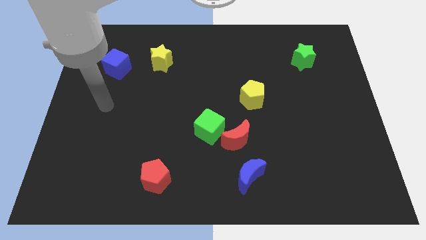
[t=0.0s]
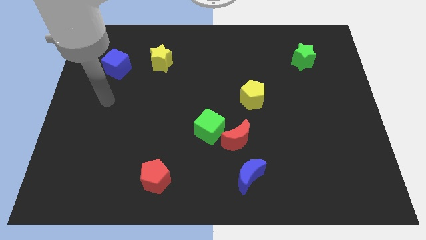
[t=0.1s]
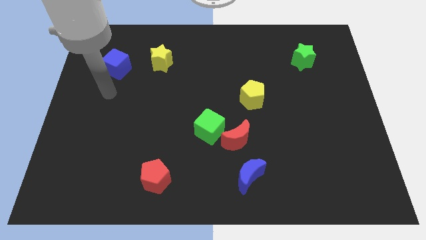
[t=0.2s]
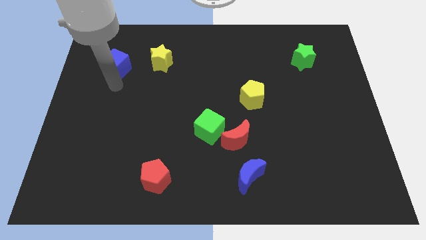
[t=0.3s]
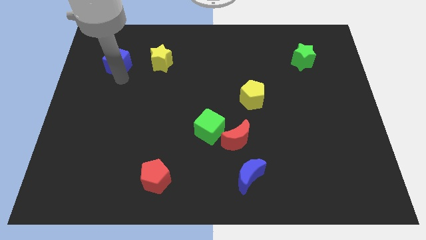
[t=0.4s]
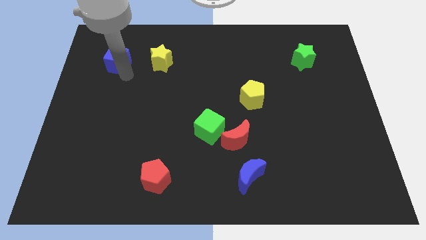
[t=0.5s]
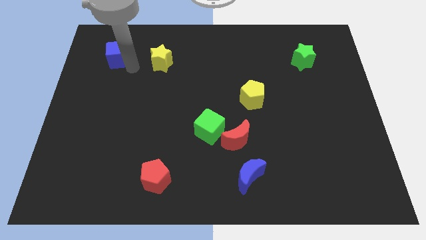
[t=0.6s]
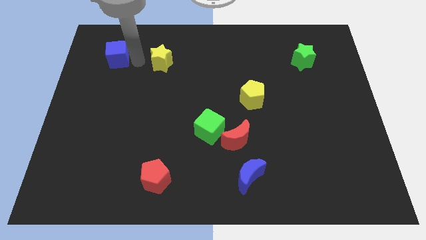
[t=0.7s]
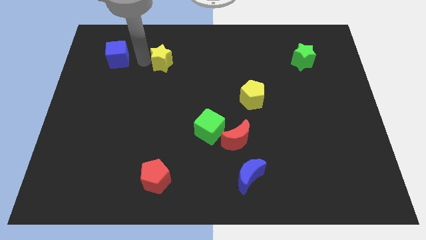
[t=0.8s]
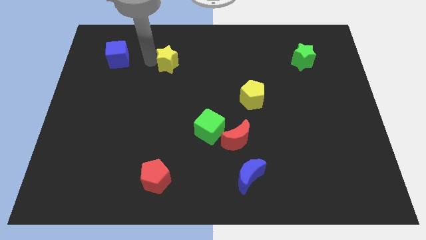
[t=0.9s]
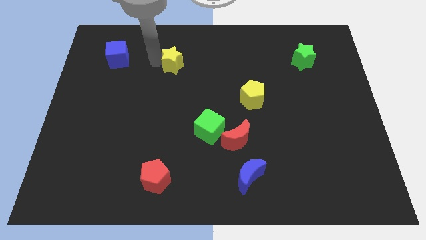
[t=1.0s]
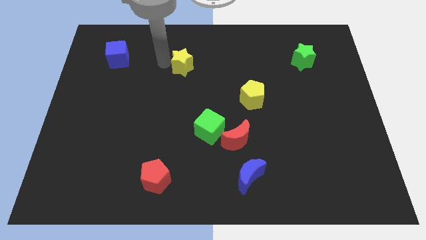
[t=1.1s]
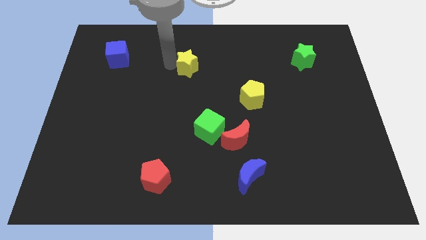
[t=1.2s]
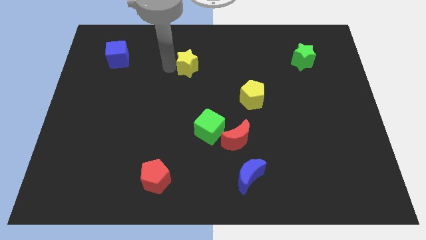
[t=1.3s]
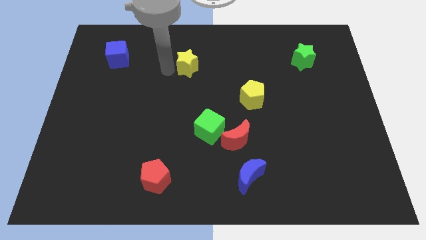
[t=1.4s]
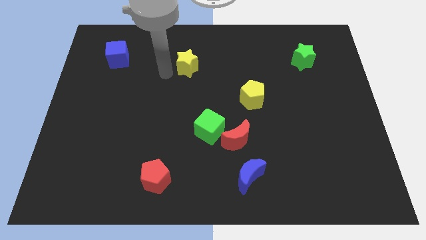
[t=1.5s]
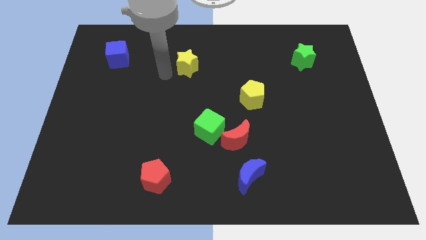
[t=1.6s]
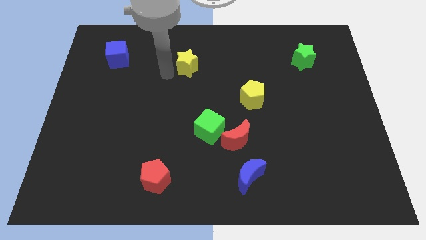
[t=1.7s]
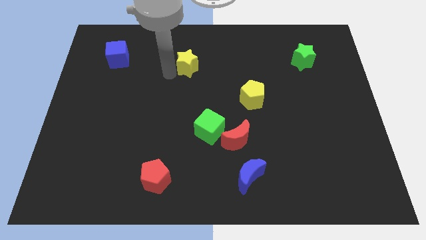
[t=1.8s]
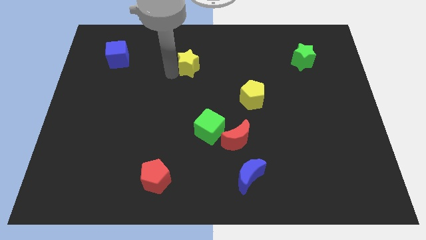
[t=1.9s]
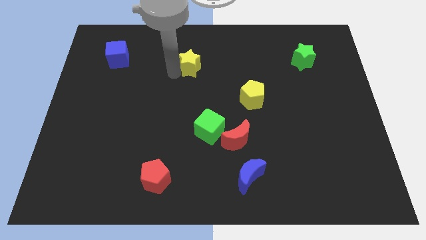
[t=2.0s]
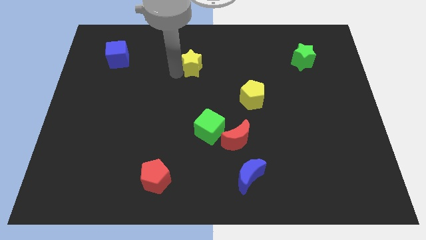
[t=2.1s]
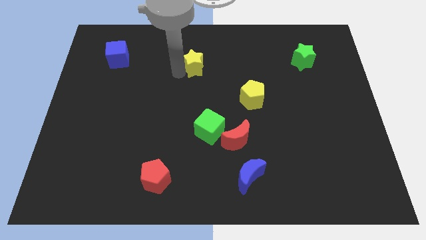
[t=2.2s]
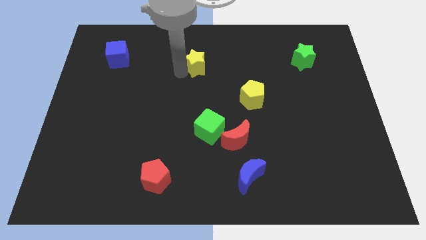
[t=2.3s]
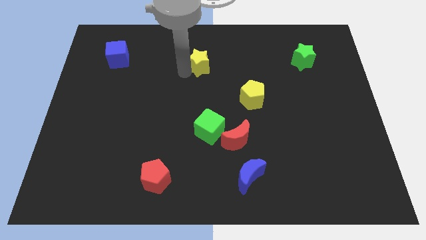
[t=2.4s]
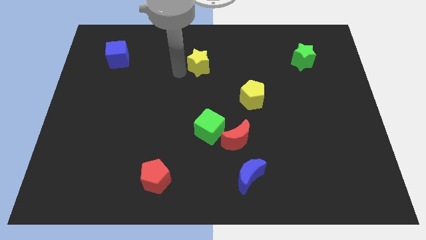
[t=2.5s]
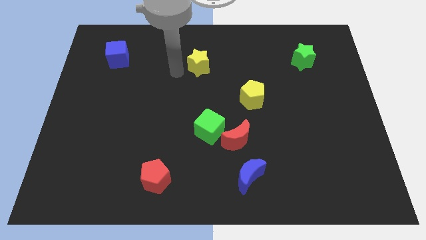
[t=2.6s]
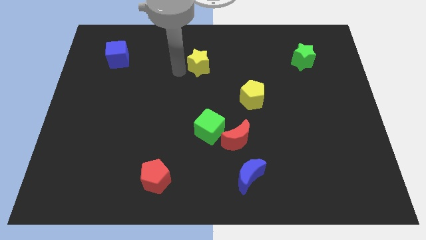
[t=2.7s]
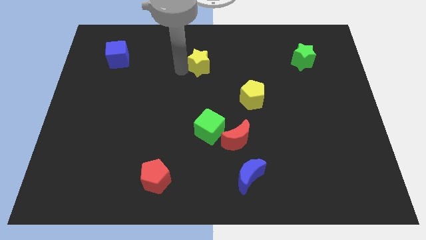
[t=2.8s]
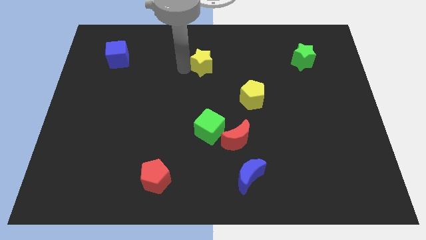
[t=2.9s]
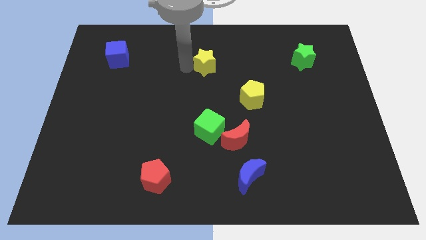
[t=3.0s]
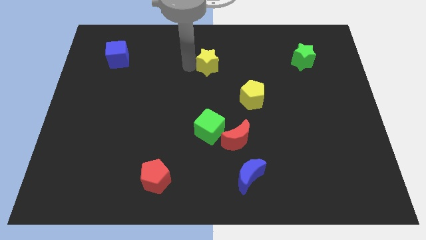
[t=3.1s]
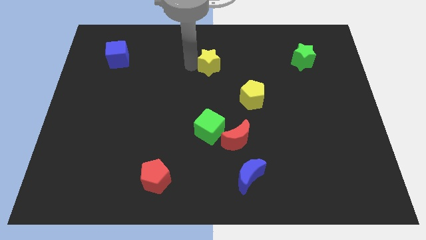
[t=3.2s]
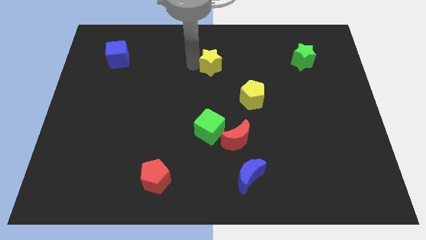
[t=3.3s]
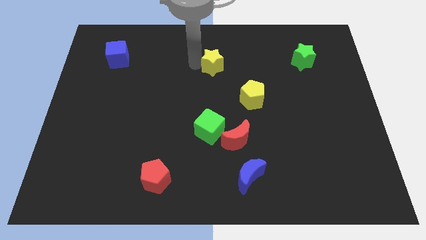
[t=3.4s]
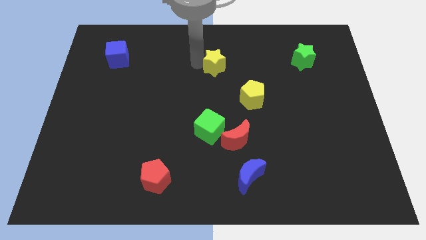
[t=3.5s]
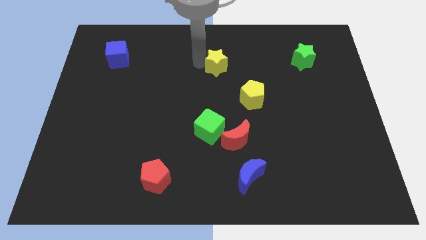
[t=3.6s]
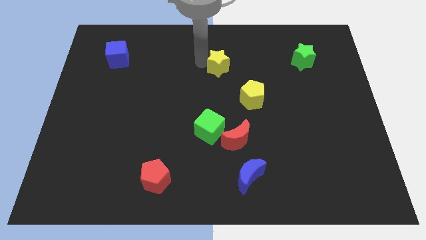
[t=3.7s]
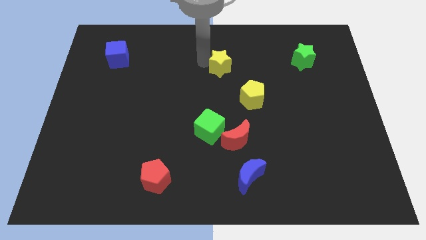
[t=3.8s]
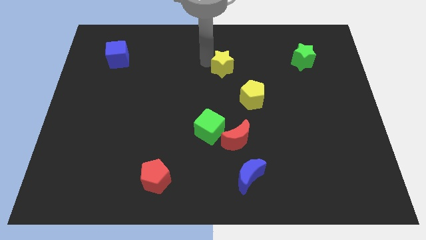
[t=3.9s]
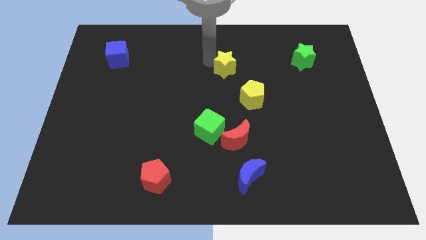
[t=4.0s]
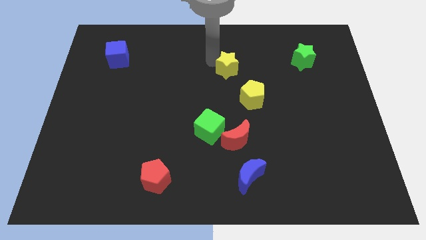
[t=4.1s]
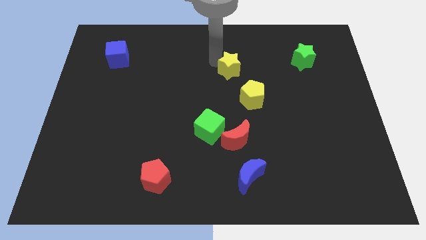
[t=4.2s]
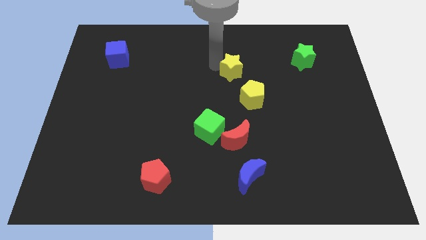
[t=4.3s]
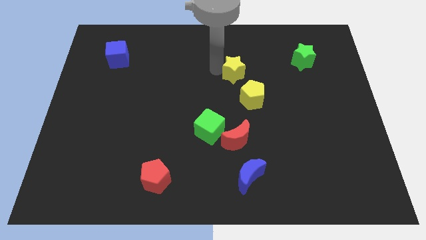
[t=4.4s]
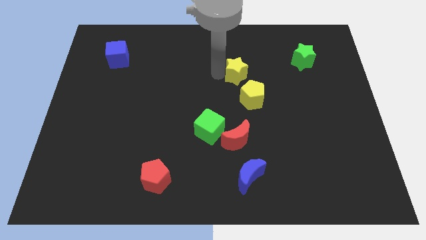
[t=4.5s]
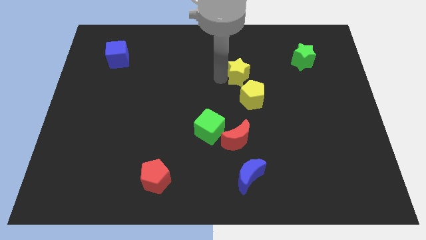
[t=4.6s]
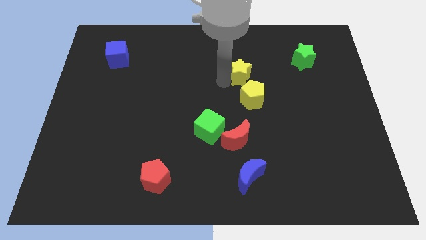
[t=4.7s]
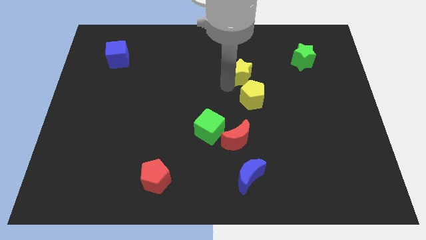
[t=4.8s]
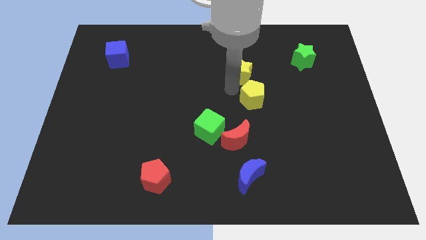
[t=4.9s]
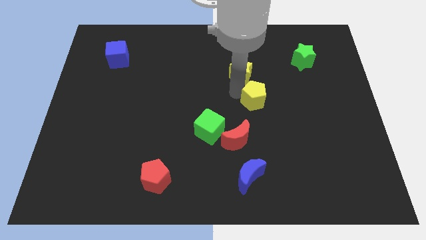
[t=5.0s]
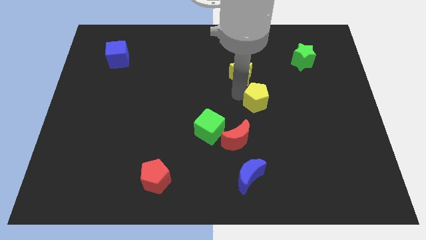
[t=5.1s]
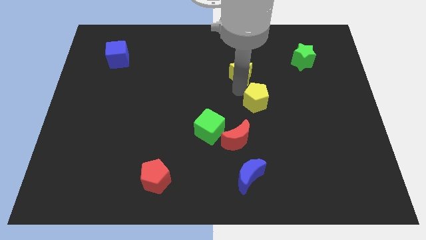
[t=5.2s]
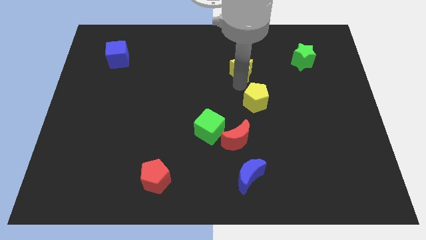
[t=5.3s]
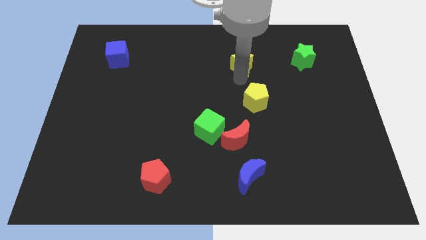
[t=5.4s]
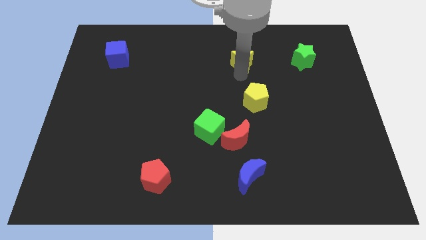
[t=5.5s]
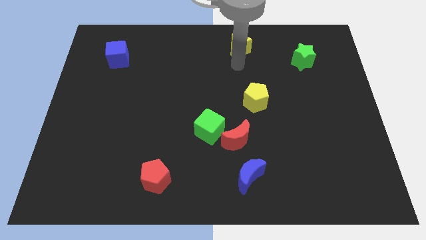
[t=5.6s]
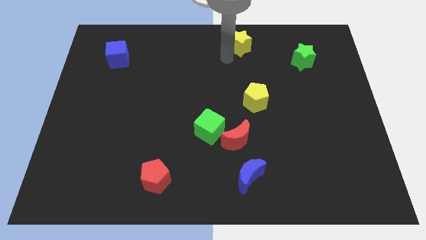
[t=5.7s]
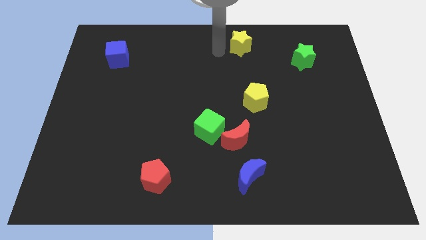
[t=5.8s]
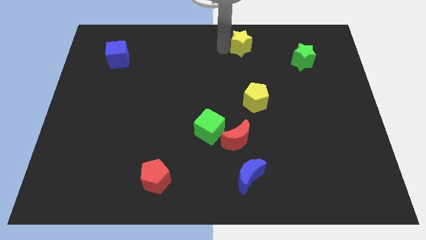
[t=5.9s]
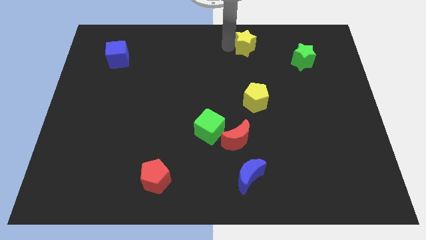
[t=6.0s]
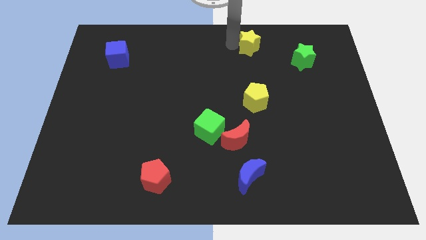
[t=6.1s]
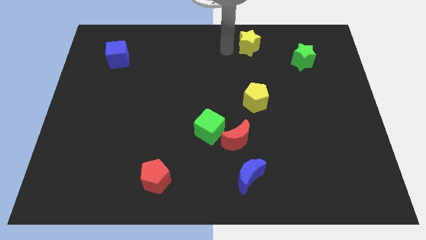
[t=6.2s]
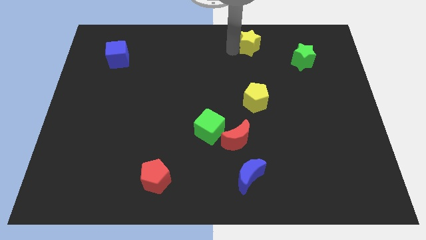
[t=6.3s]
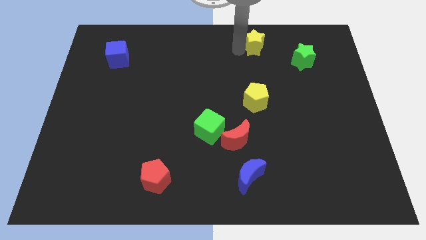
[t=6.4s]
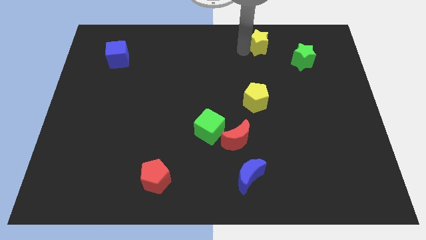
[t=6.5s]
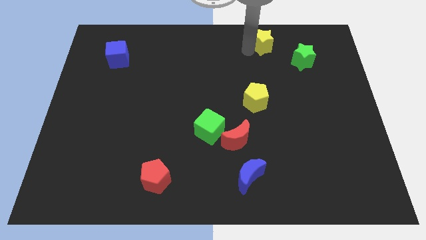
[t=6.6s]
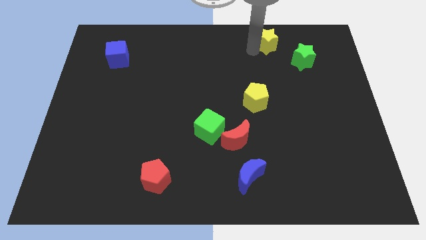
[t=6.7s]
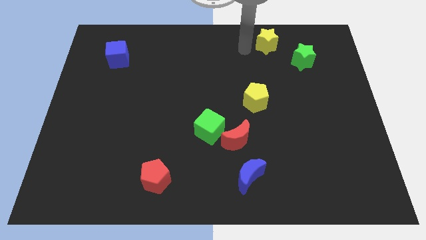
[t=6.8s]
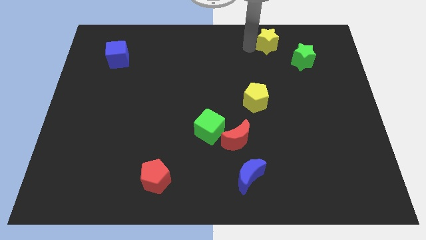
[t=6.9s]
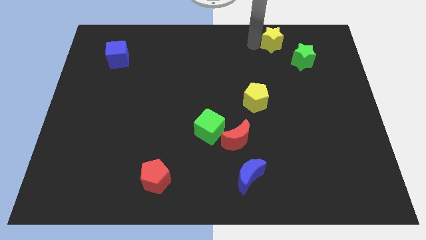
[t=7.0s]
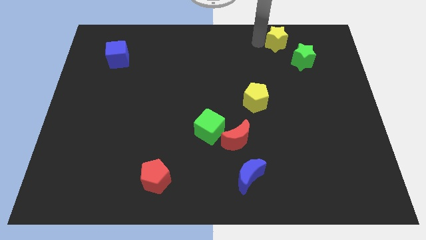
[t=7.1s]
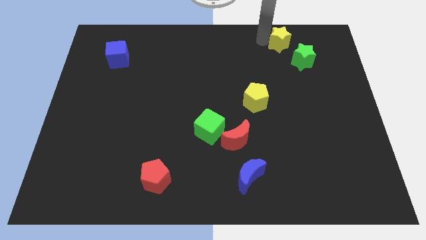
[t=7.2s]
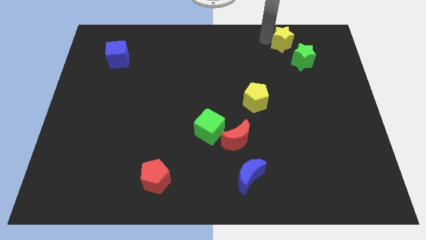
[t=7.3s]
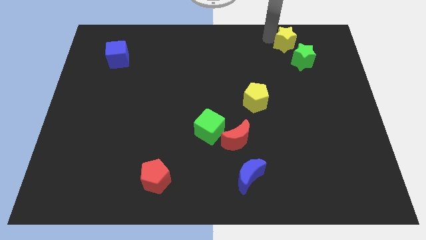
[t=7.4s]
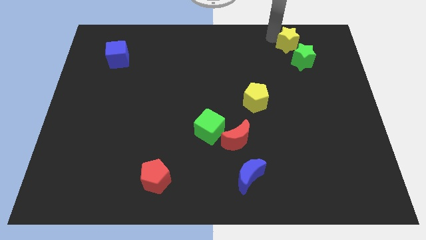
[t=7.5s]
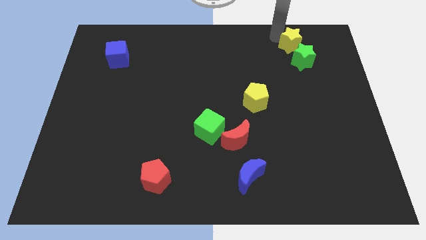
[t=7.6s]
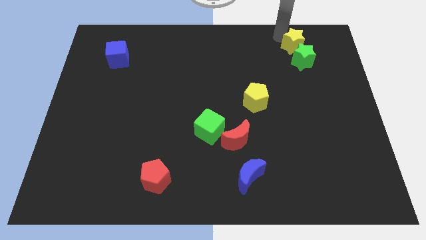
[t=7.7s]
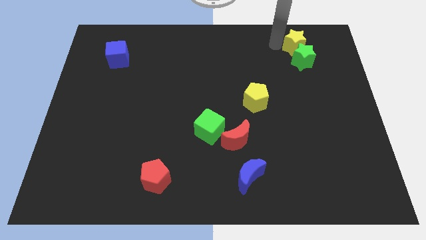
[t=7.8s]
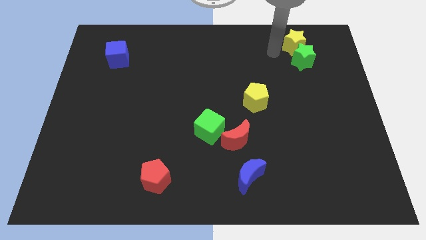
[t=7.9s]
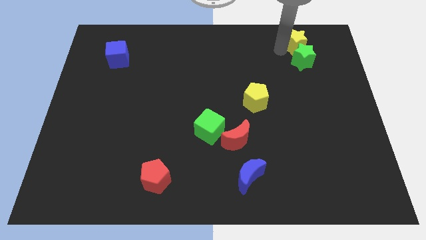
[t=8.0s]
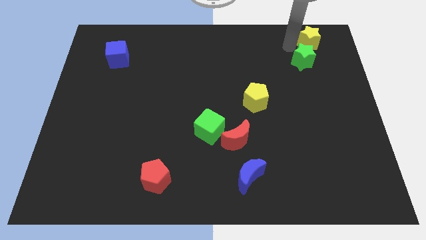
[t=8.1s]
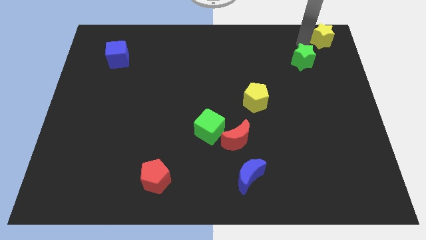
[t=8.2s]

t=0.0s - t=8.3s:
put the yellow star to the upper right corner
